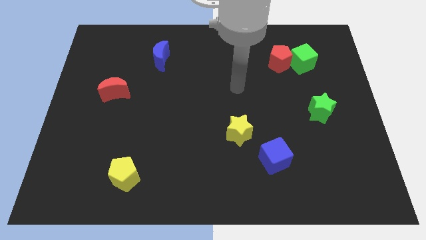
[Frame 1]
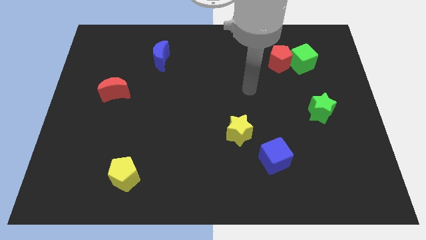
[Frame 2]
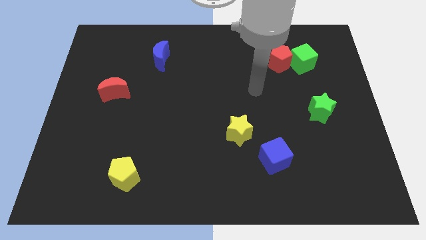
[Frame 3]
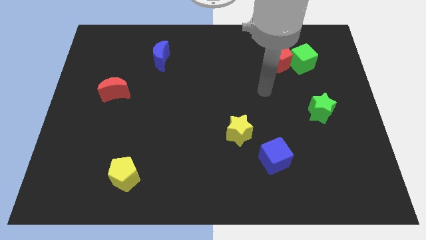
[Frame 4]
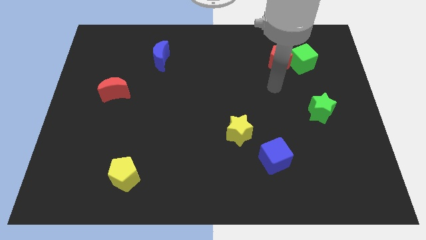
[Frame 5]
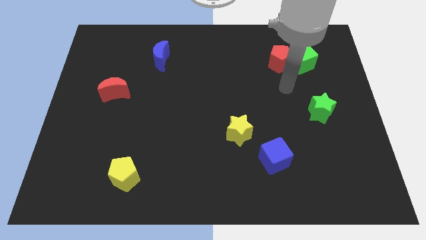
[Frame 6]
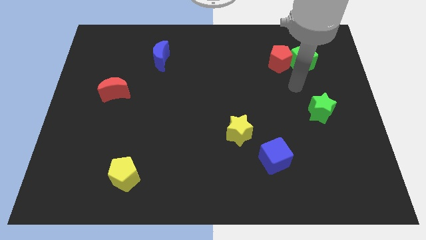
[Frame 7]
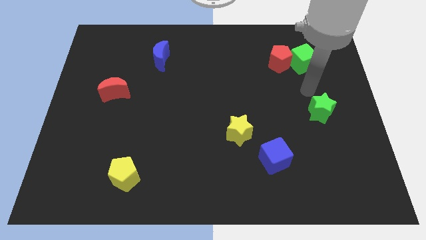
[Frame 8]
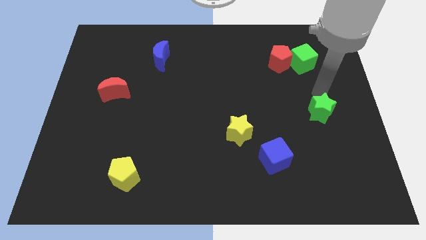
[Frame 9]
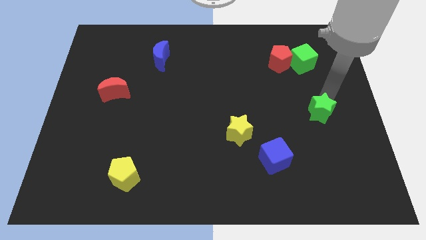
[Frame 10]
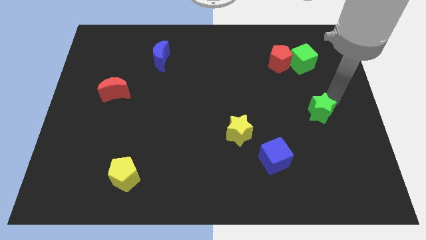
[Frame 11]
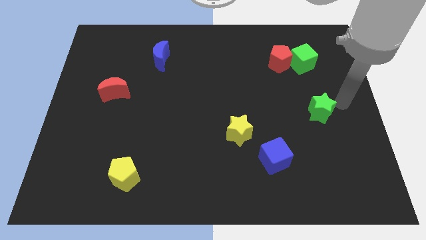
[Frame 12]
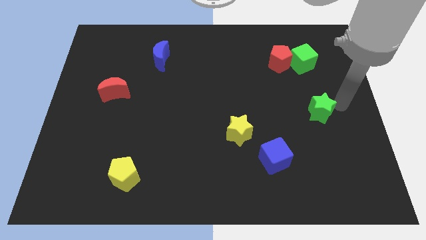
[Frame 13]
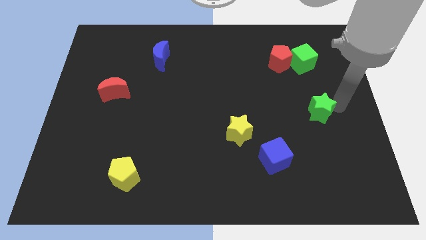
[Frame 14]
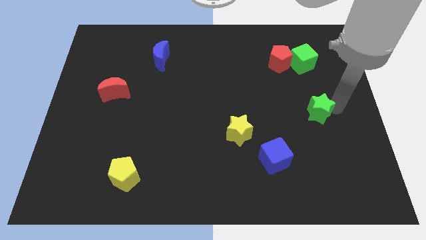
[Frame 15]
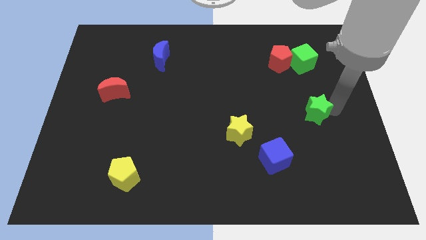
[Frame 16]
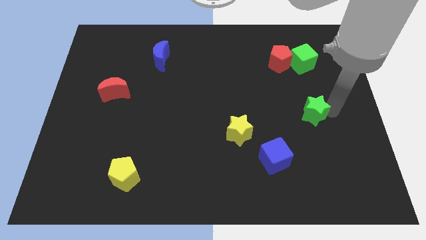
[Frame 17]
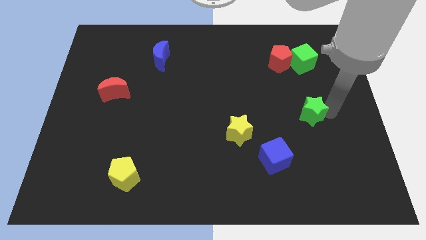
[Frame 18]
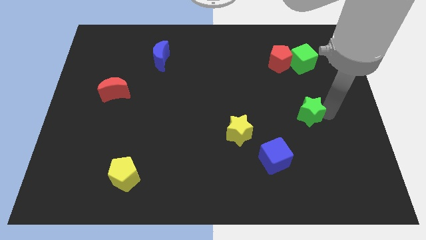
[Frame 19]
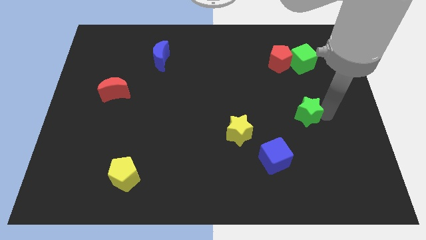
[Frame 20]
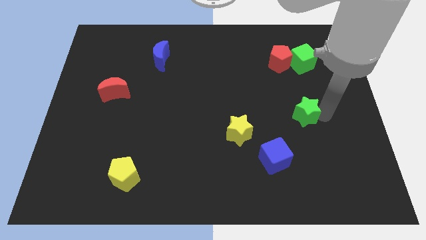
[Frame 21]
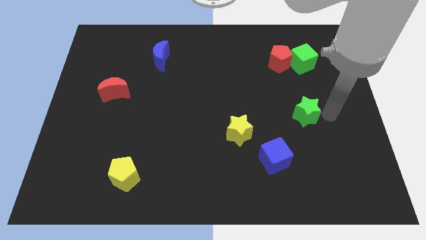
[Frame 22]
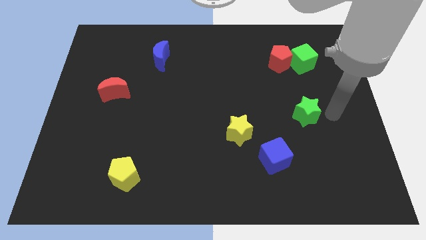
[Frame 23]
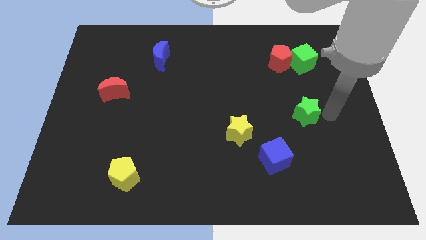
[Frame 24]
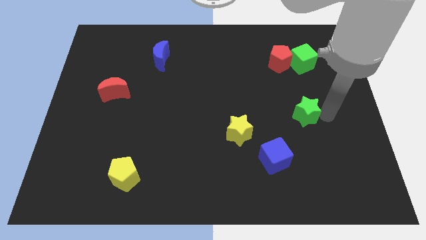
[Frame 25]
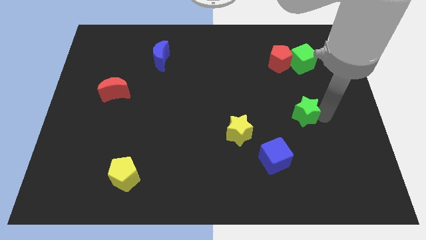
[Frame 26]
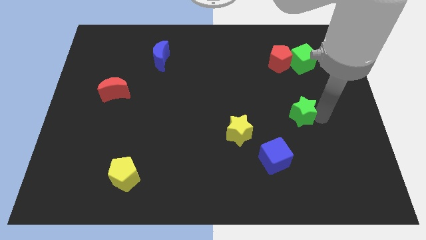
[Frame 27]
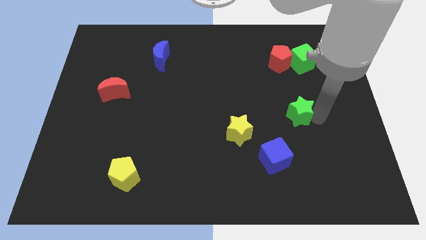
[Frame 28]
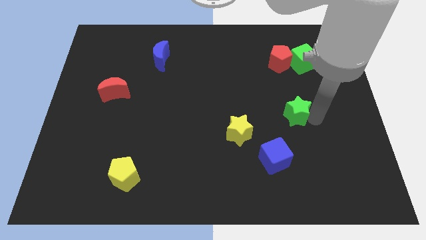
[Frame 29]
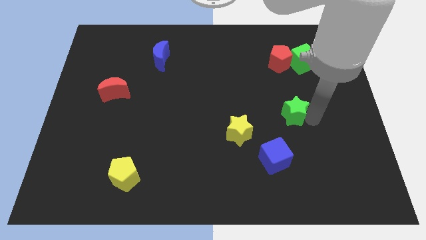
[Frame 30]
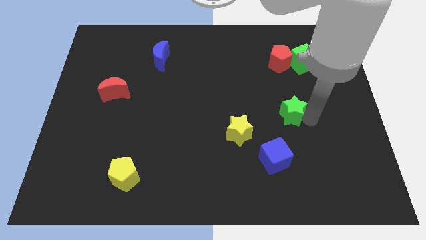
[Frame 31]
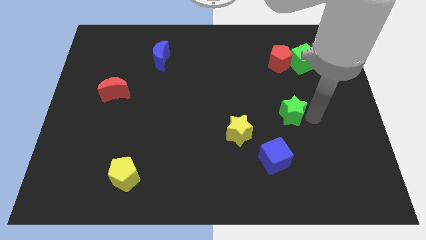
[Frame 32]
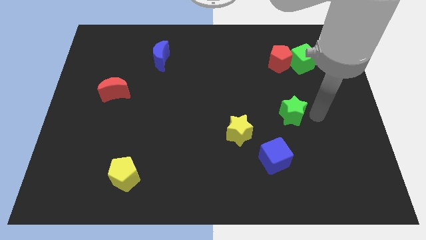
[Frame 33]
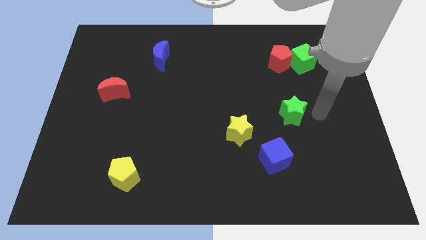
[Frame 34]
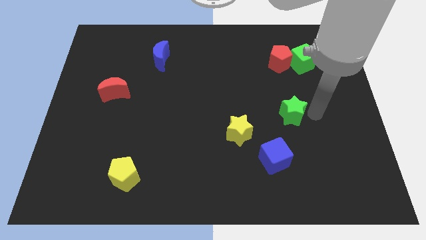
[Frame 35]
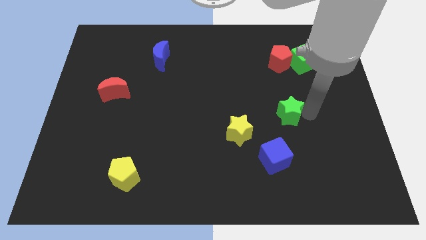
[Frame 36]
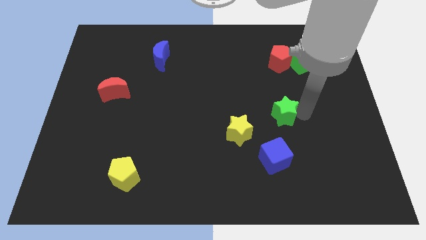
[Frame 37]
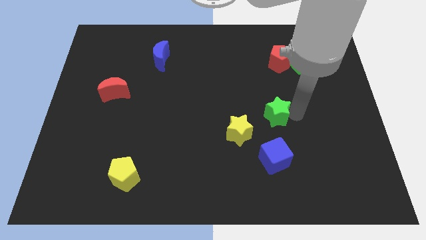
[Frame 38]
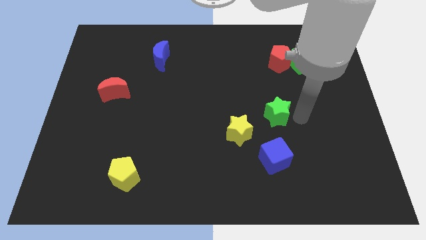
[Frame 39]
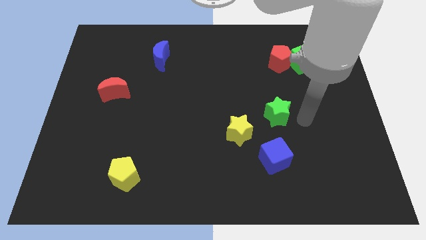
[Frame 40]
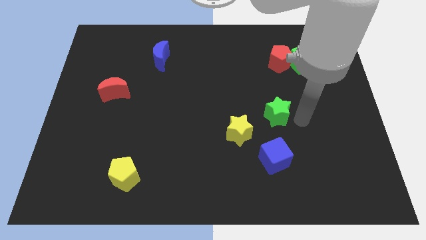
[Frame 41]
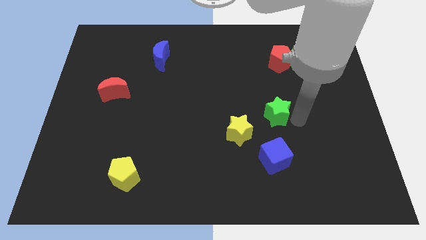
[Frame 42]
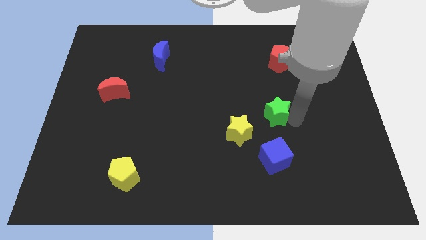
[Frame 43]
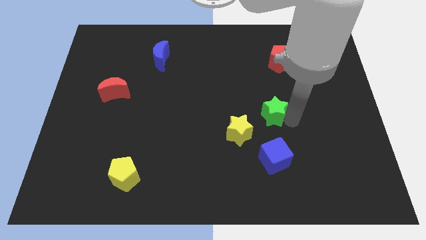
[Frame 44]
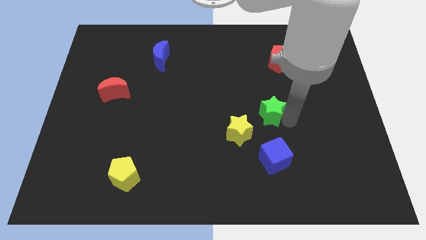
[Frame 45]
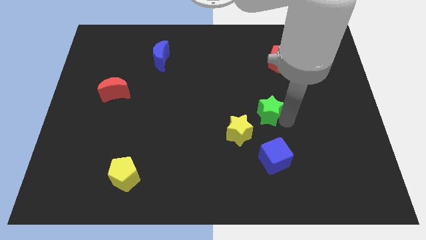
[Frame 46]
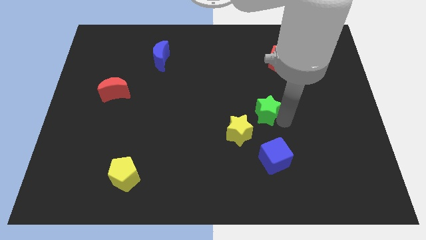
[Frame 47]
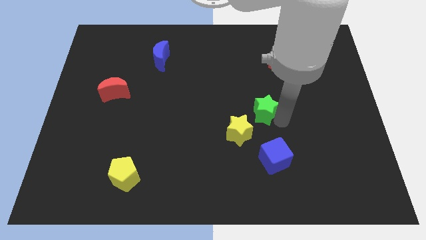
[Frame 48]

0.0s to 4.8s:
put the green star to the center of the board

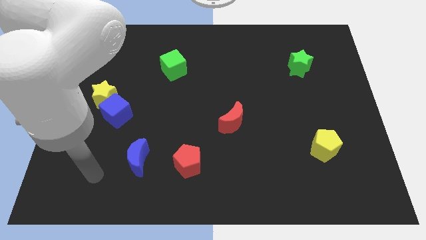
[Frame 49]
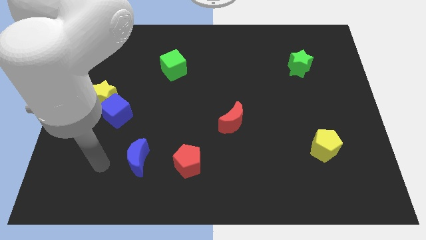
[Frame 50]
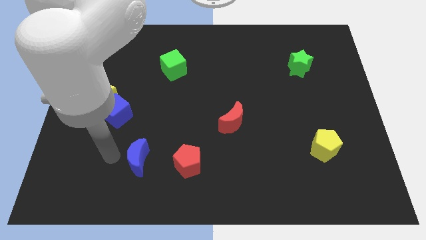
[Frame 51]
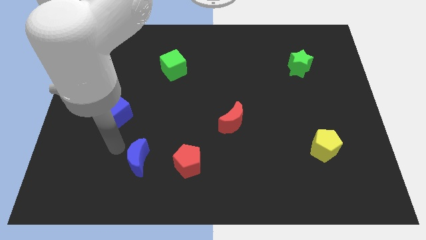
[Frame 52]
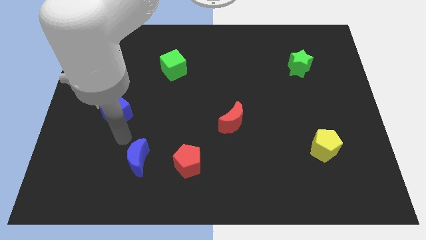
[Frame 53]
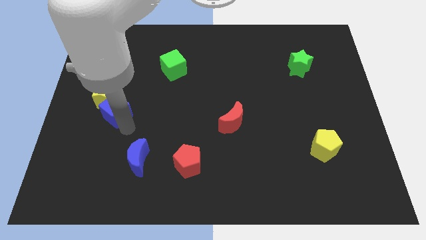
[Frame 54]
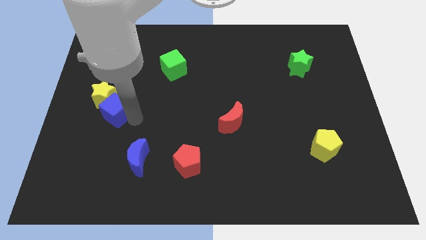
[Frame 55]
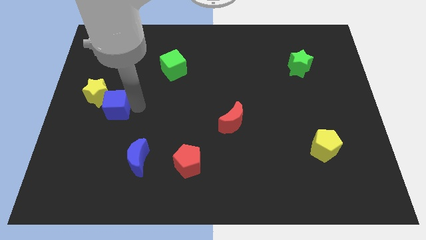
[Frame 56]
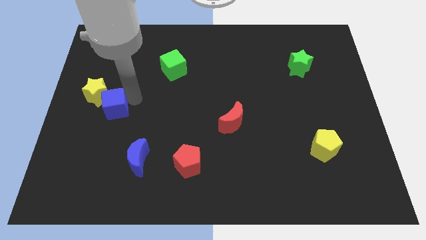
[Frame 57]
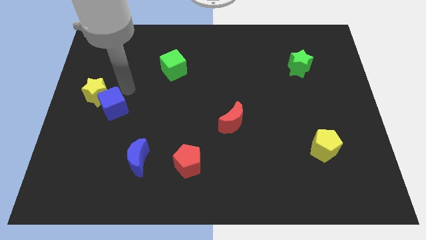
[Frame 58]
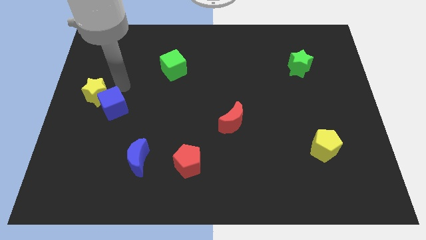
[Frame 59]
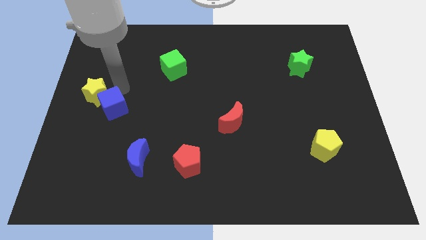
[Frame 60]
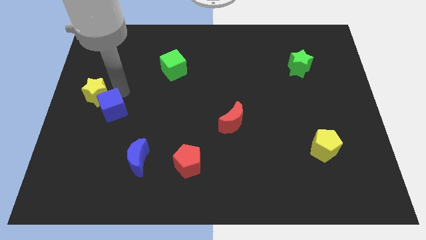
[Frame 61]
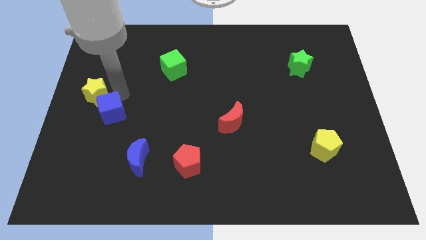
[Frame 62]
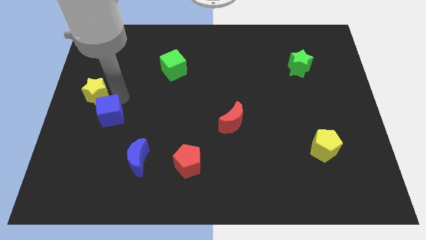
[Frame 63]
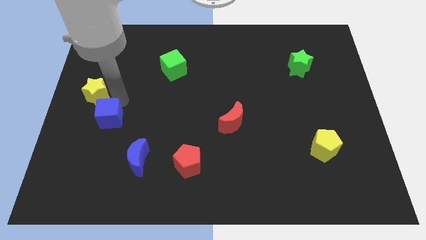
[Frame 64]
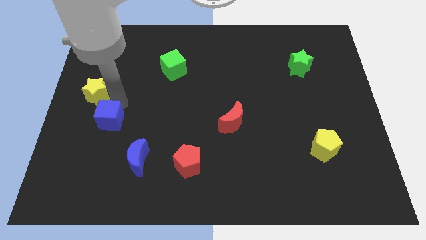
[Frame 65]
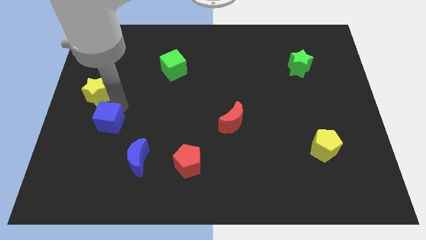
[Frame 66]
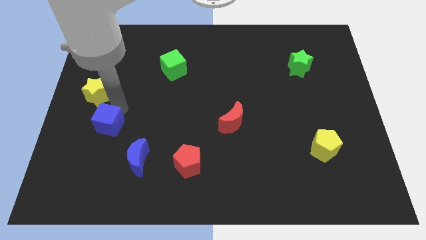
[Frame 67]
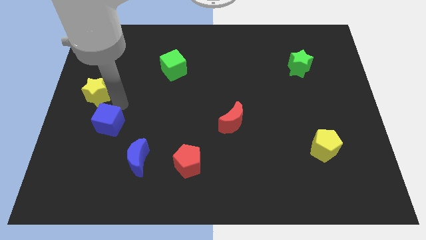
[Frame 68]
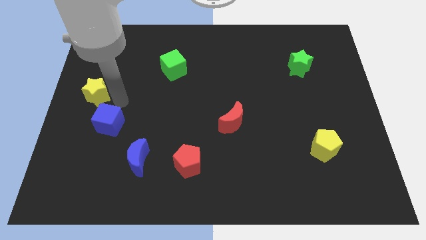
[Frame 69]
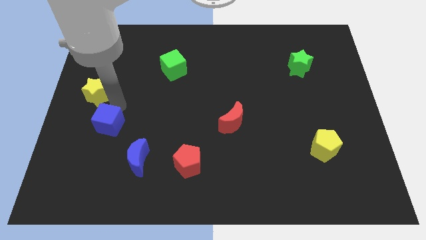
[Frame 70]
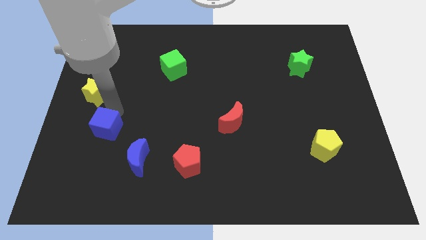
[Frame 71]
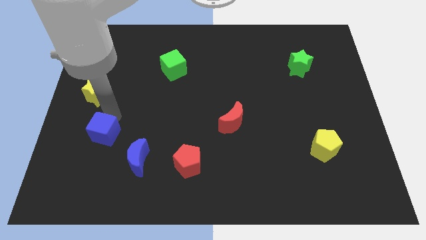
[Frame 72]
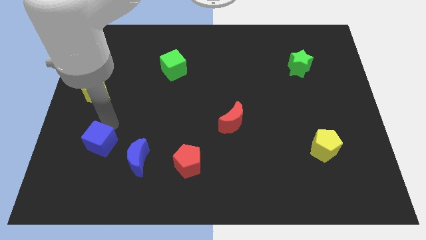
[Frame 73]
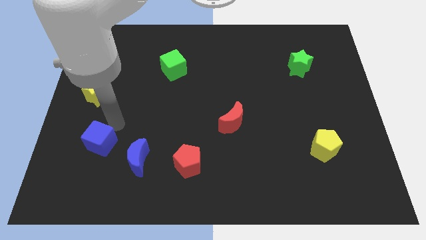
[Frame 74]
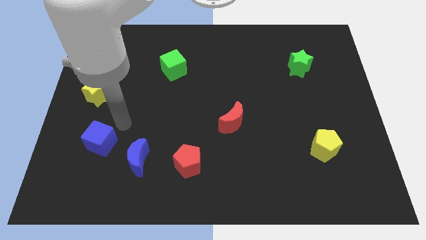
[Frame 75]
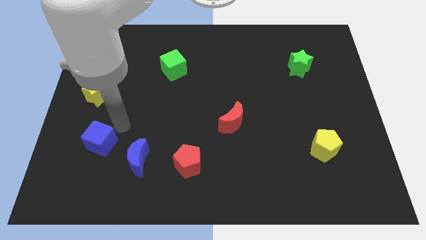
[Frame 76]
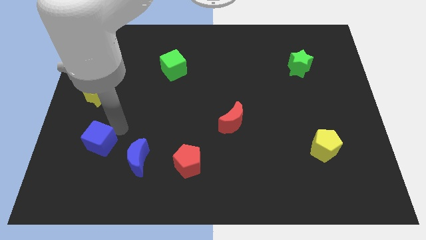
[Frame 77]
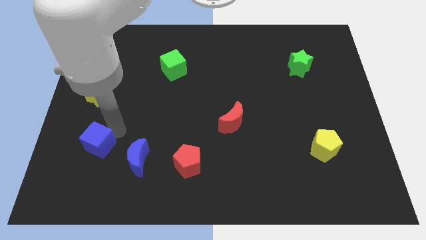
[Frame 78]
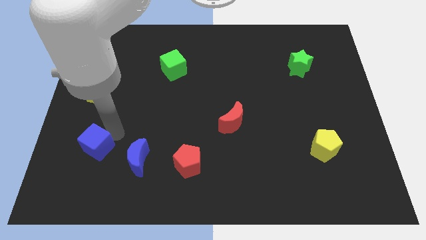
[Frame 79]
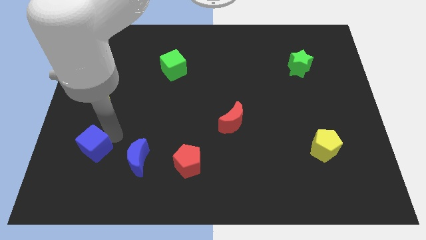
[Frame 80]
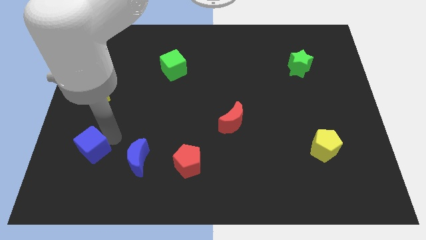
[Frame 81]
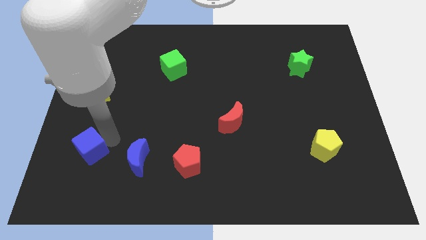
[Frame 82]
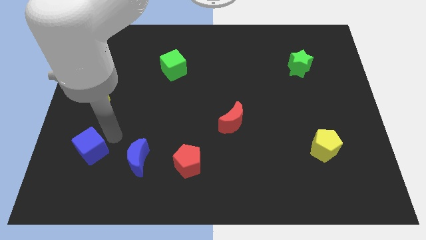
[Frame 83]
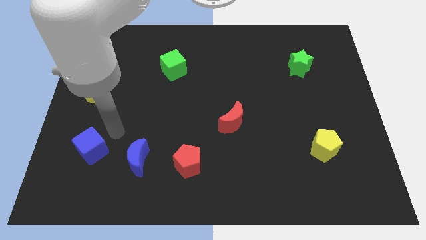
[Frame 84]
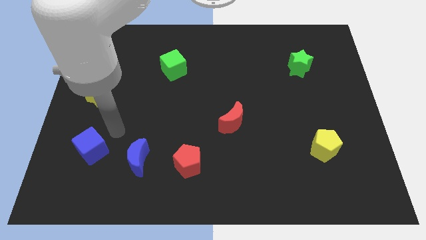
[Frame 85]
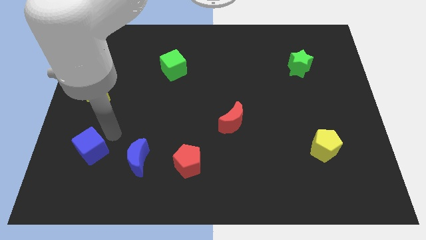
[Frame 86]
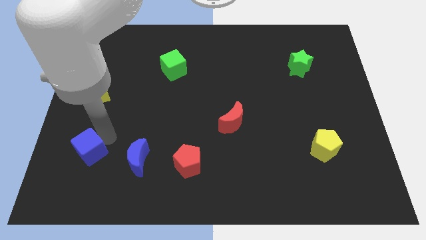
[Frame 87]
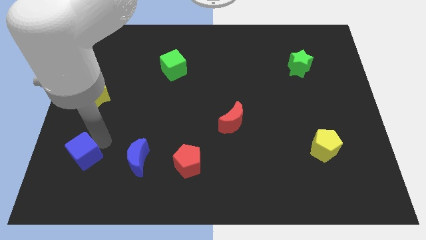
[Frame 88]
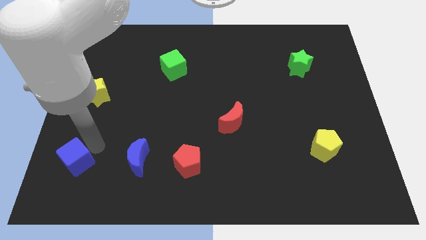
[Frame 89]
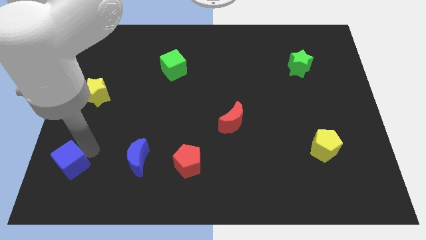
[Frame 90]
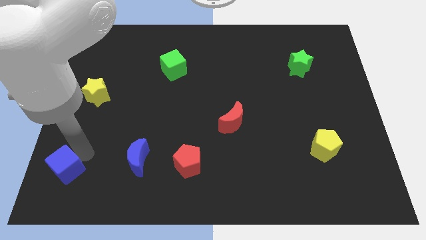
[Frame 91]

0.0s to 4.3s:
slide the blue cube to the lower left corner
